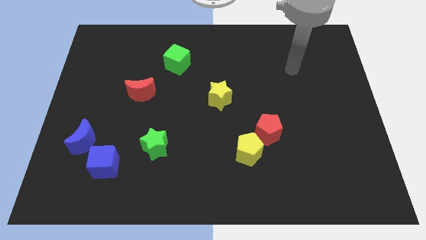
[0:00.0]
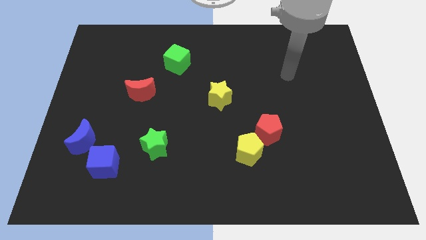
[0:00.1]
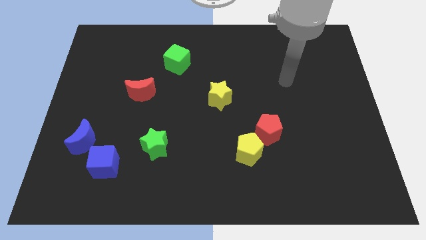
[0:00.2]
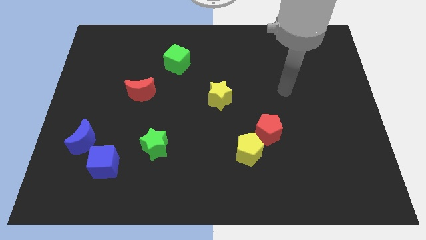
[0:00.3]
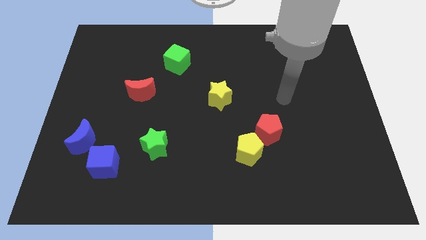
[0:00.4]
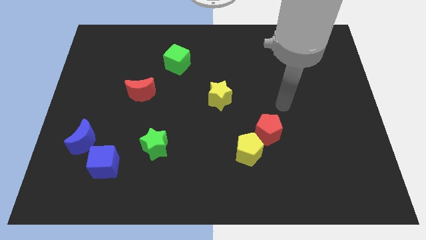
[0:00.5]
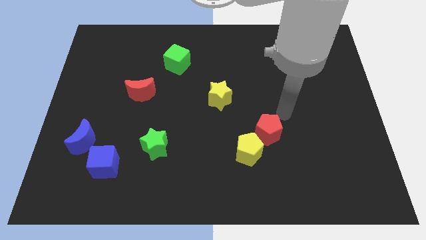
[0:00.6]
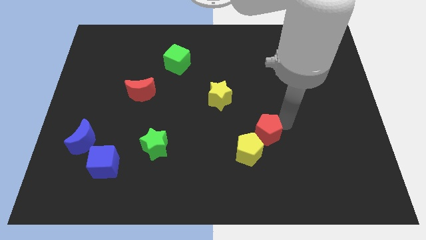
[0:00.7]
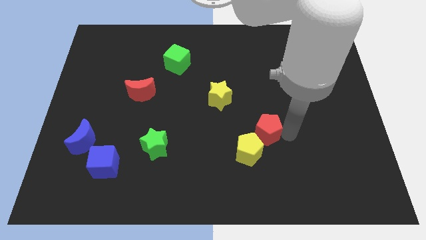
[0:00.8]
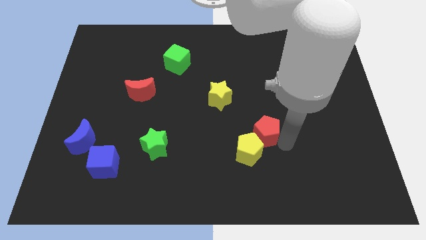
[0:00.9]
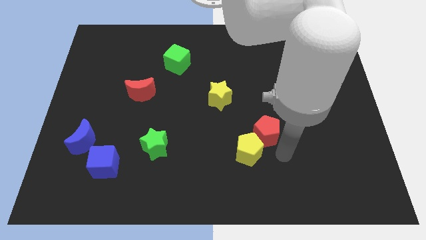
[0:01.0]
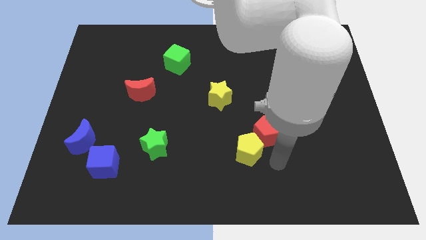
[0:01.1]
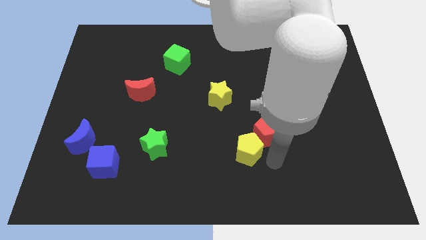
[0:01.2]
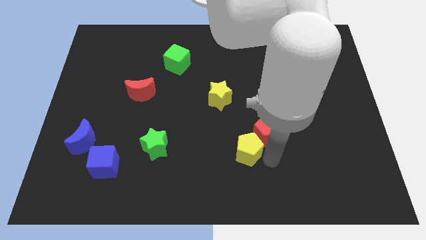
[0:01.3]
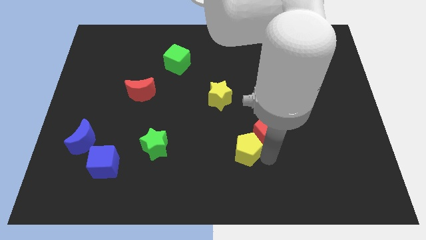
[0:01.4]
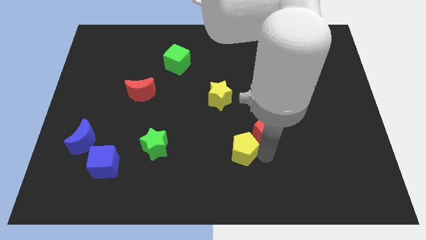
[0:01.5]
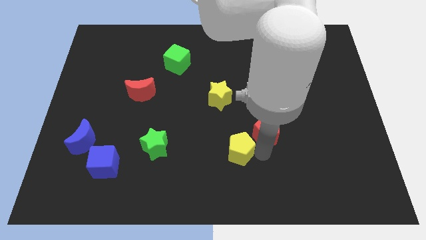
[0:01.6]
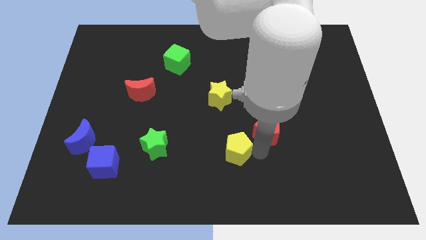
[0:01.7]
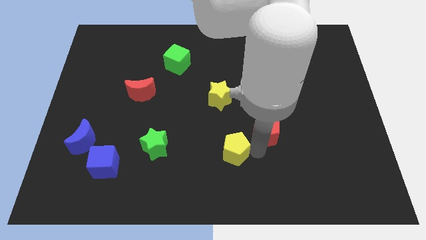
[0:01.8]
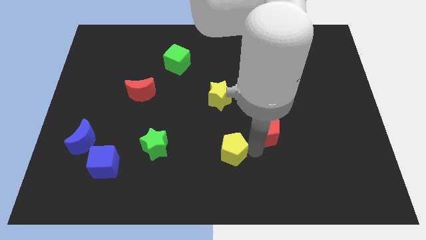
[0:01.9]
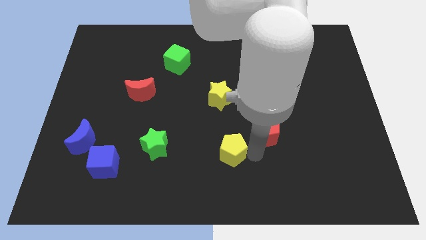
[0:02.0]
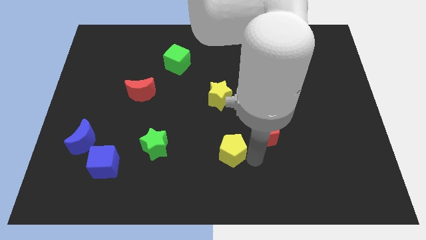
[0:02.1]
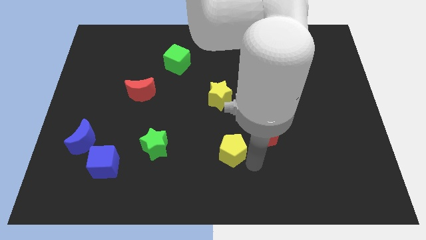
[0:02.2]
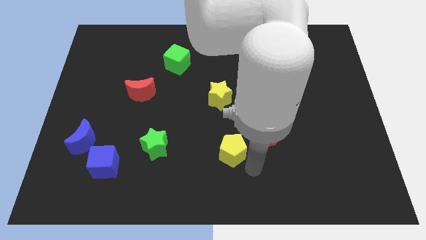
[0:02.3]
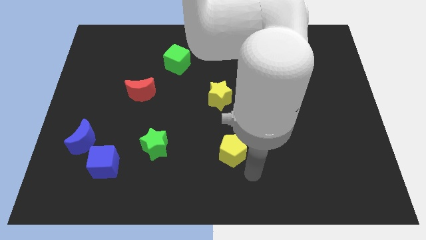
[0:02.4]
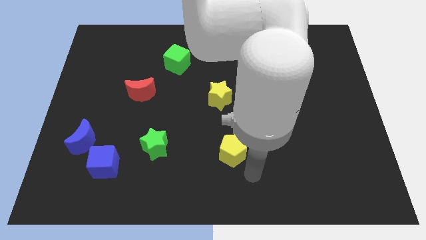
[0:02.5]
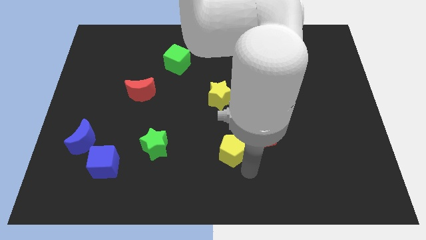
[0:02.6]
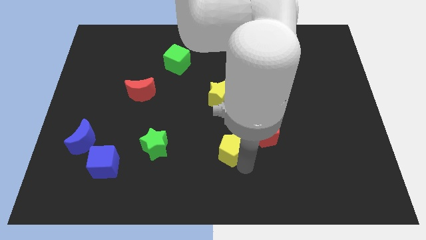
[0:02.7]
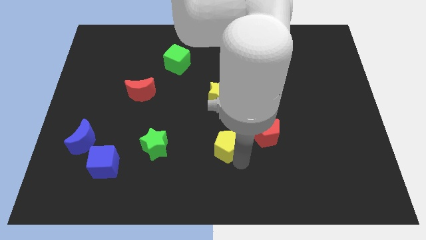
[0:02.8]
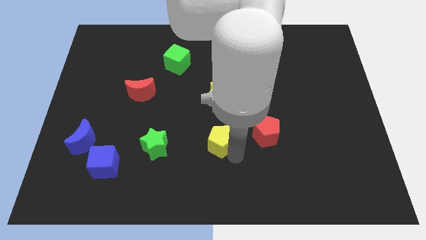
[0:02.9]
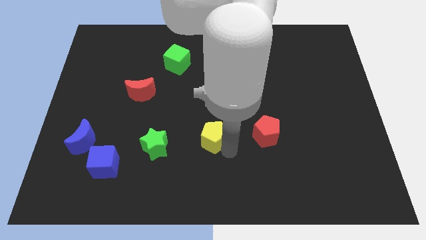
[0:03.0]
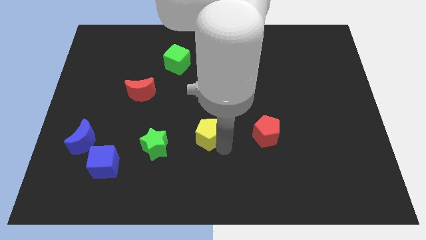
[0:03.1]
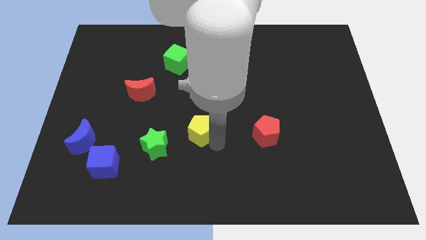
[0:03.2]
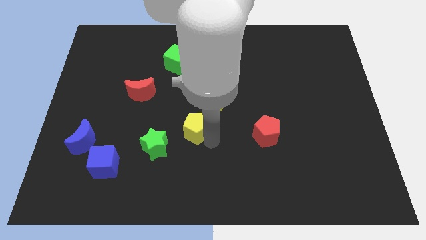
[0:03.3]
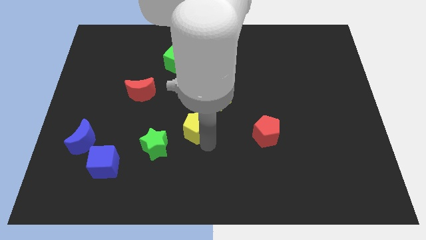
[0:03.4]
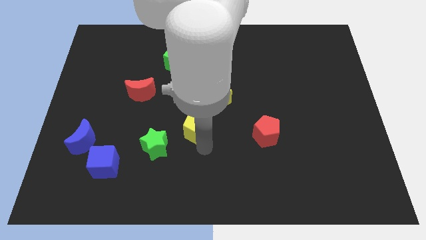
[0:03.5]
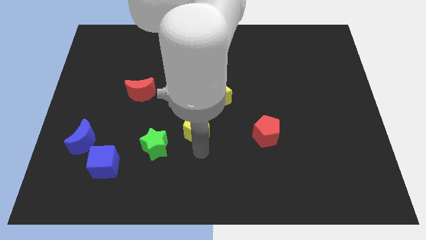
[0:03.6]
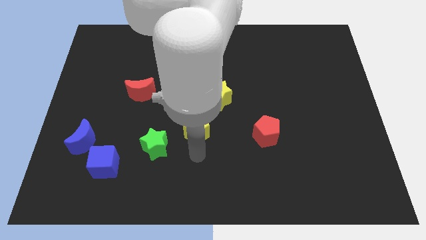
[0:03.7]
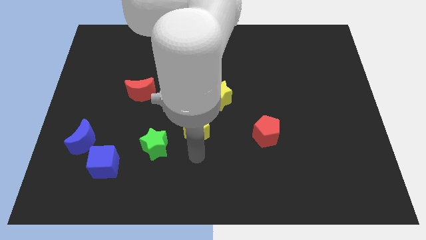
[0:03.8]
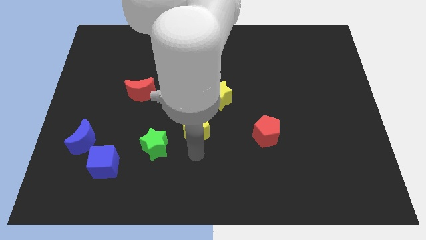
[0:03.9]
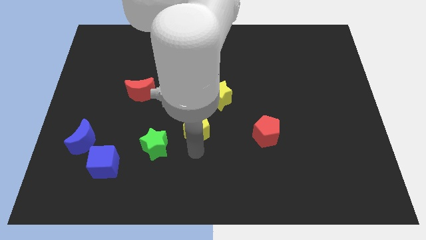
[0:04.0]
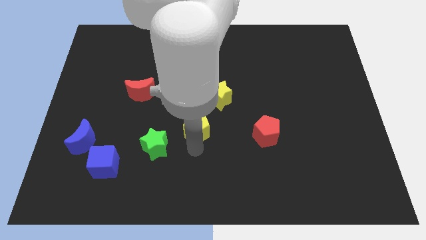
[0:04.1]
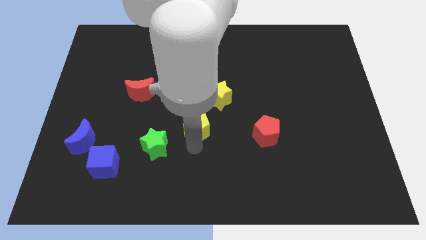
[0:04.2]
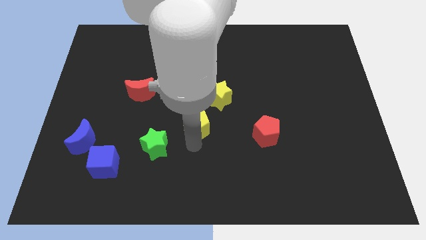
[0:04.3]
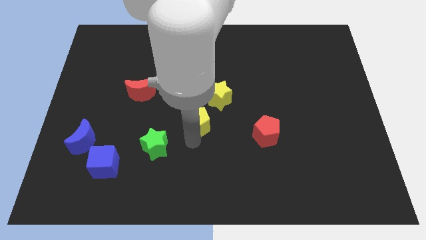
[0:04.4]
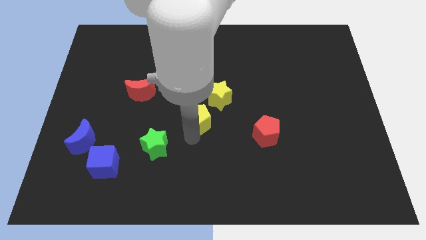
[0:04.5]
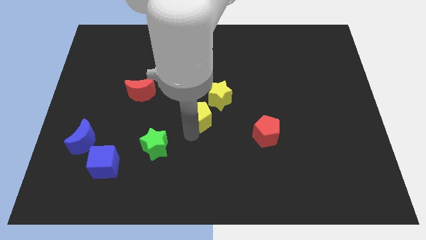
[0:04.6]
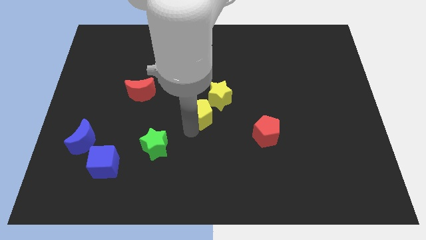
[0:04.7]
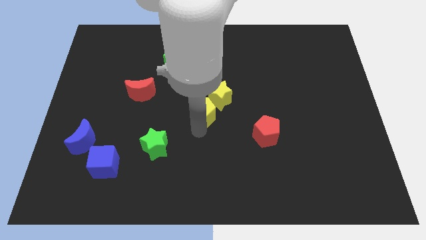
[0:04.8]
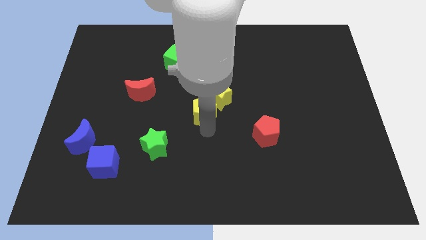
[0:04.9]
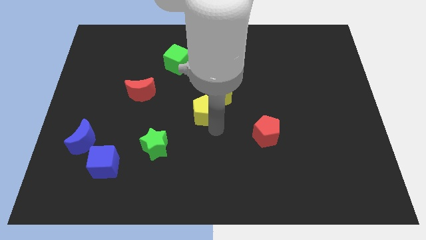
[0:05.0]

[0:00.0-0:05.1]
push the yellow pentagon to the left side of the yellow star

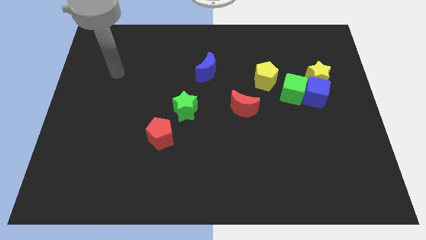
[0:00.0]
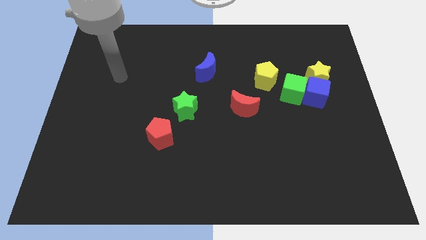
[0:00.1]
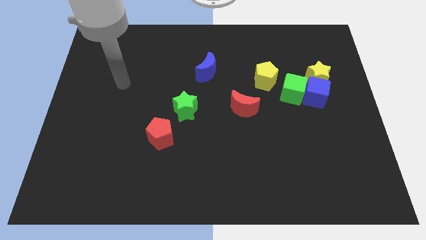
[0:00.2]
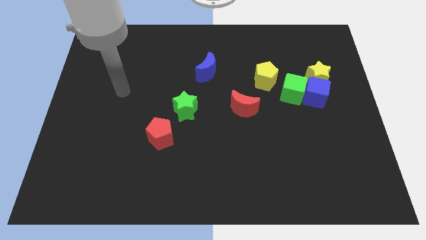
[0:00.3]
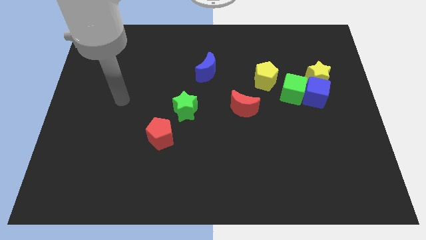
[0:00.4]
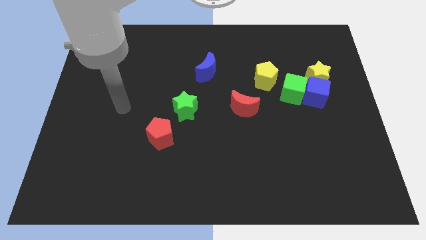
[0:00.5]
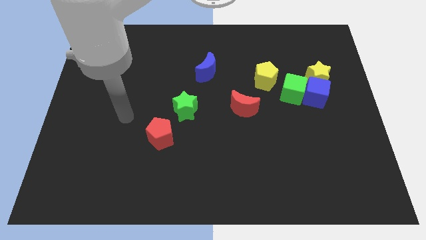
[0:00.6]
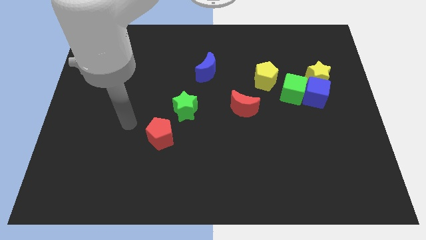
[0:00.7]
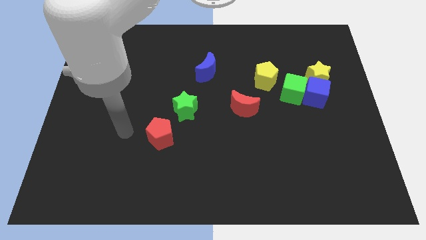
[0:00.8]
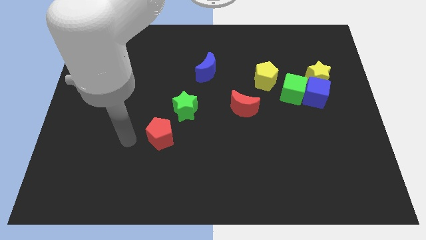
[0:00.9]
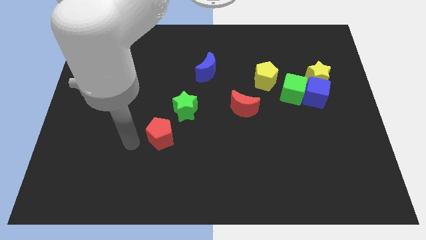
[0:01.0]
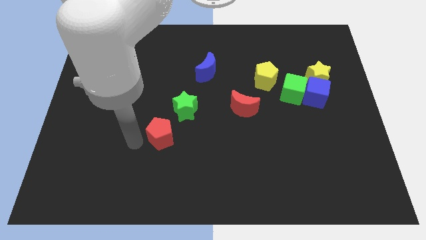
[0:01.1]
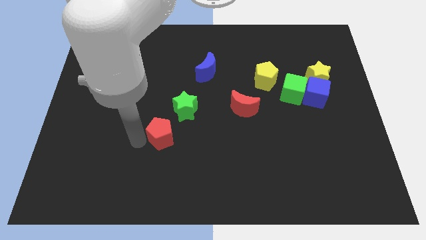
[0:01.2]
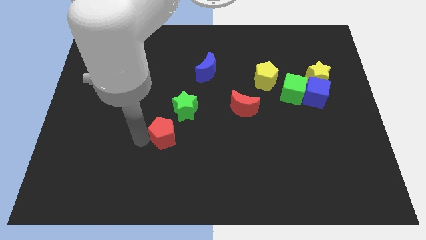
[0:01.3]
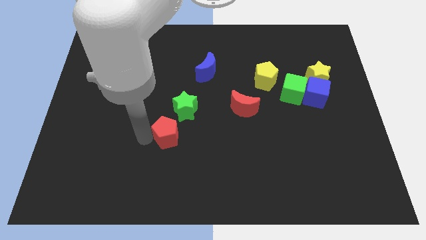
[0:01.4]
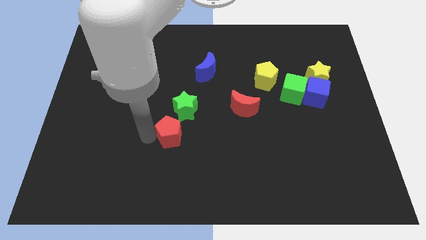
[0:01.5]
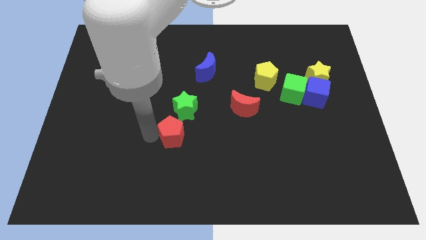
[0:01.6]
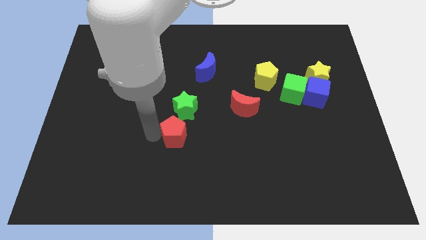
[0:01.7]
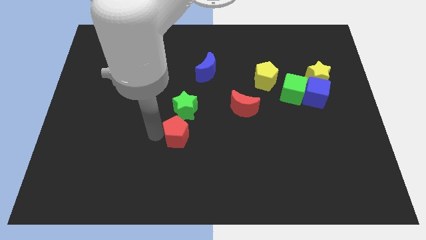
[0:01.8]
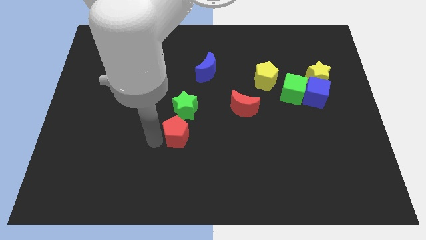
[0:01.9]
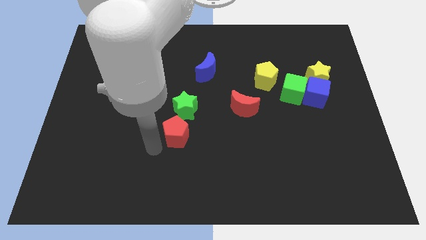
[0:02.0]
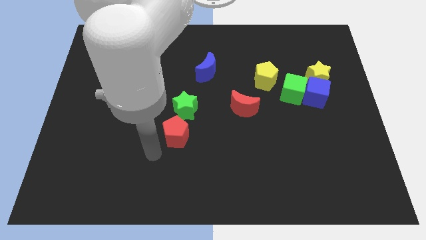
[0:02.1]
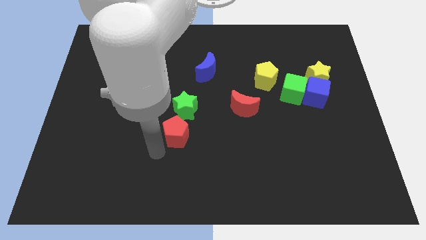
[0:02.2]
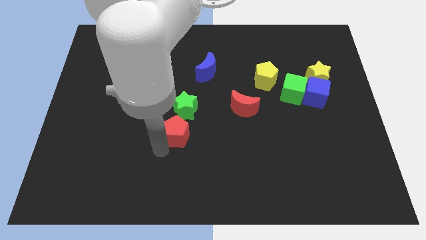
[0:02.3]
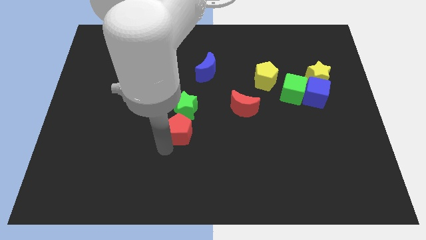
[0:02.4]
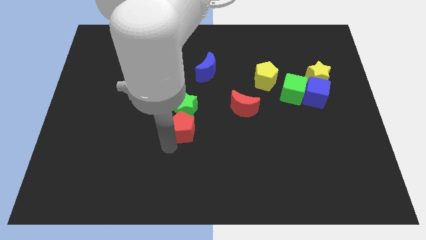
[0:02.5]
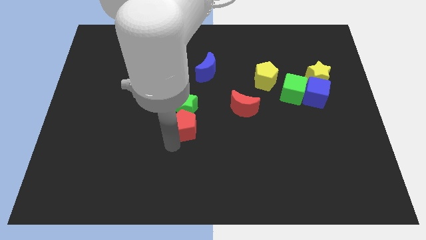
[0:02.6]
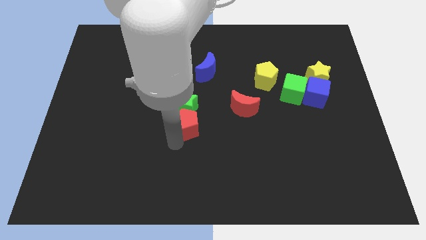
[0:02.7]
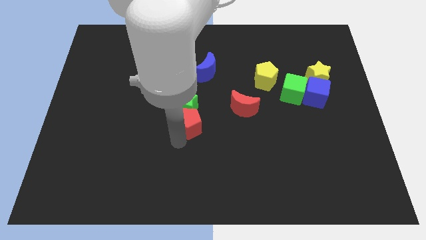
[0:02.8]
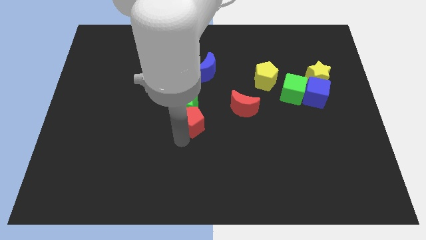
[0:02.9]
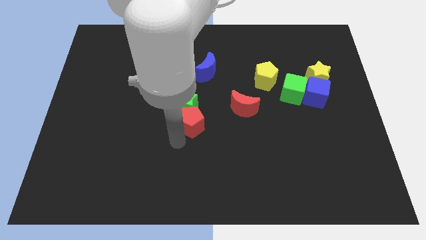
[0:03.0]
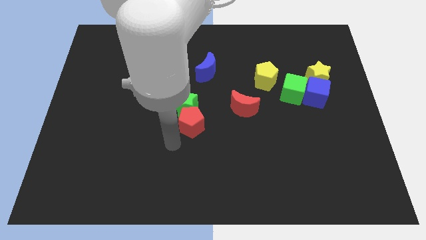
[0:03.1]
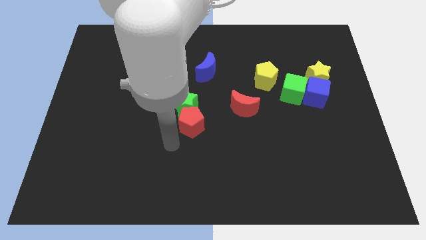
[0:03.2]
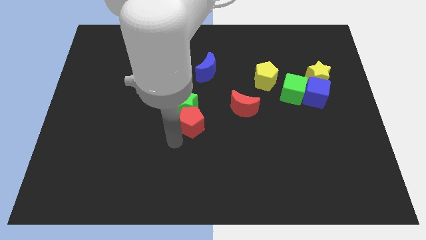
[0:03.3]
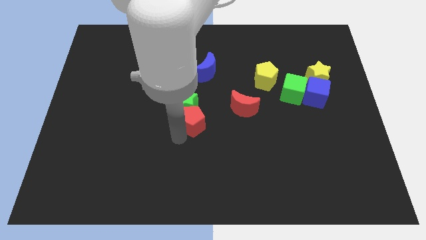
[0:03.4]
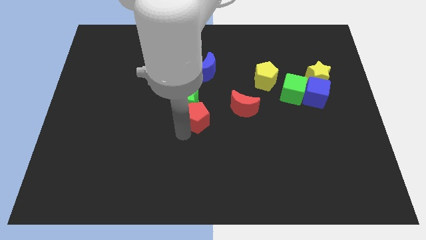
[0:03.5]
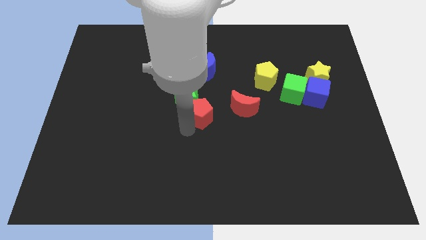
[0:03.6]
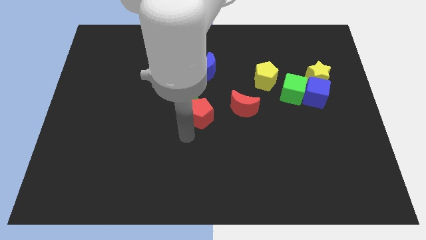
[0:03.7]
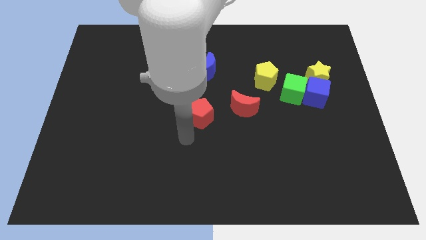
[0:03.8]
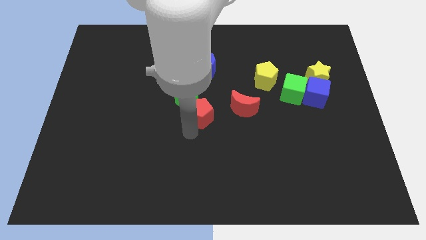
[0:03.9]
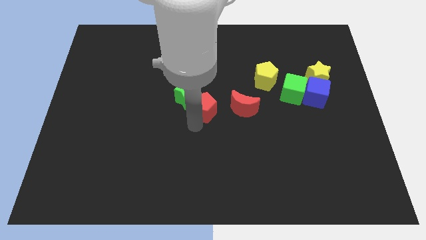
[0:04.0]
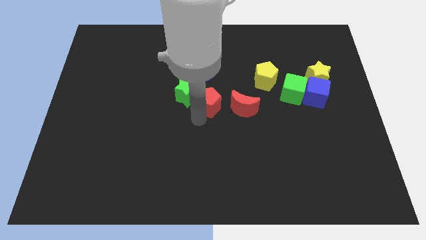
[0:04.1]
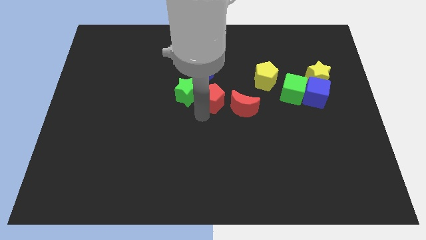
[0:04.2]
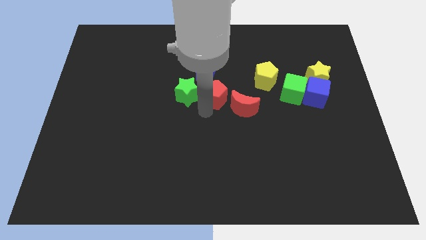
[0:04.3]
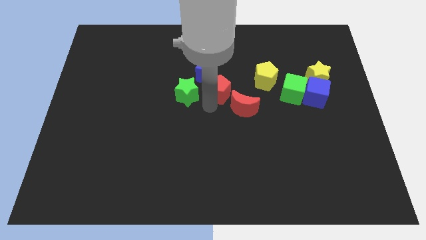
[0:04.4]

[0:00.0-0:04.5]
push the red pentagon to the left of the yellow pentagon
